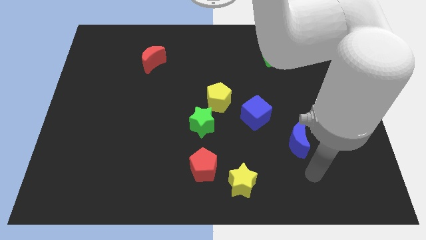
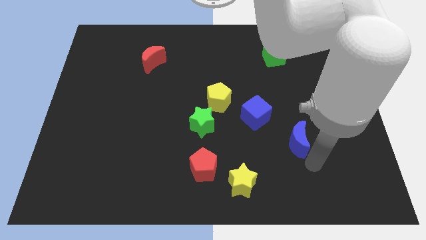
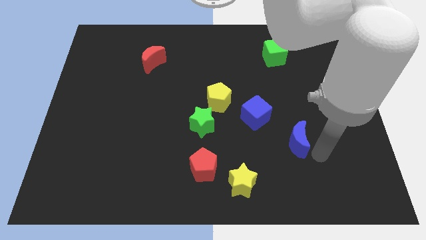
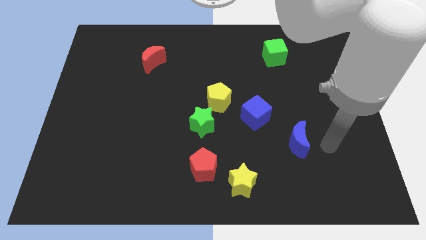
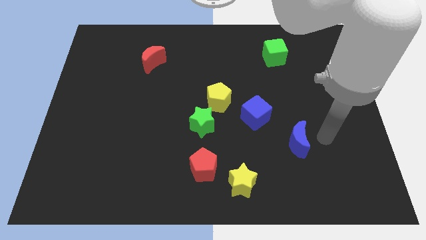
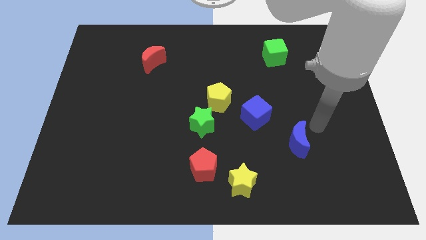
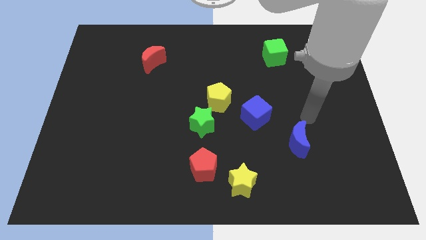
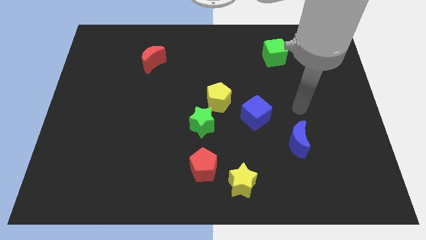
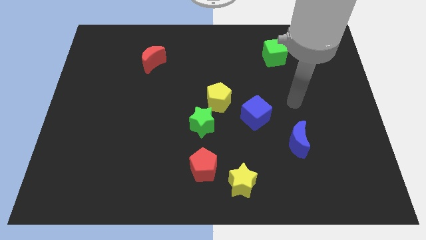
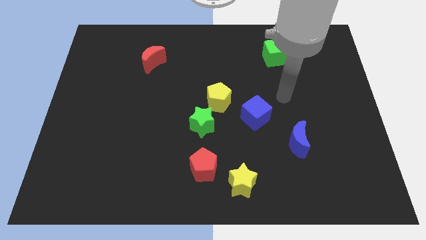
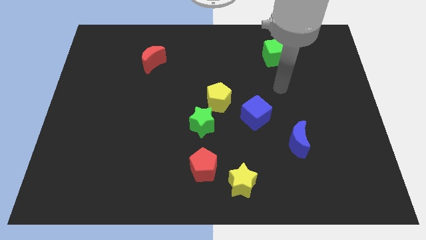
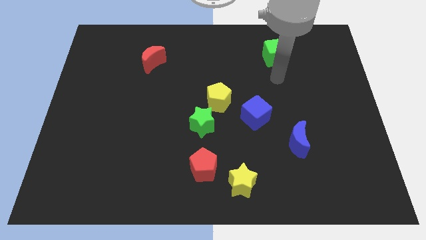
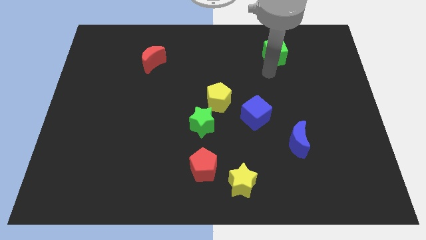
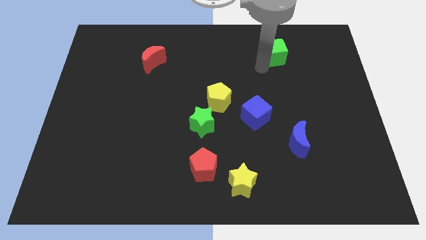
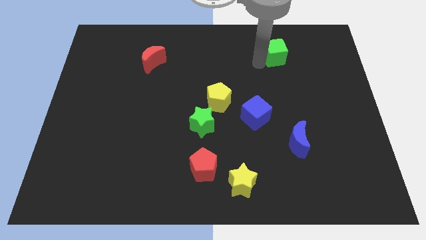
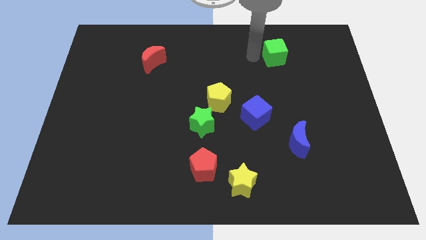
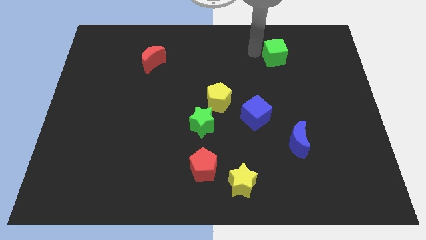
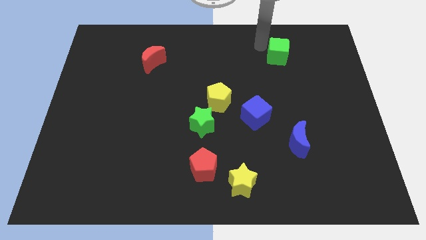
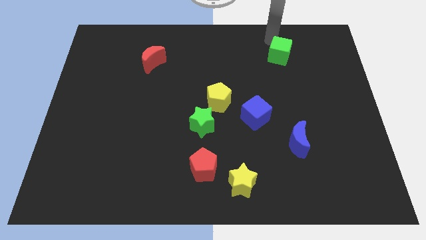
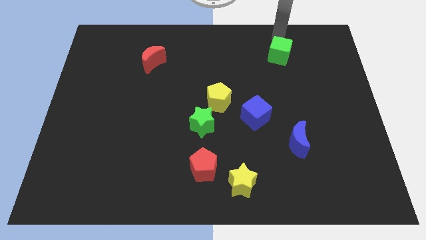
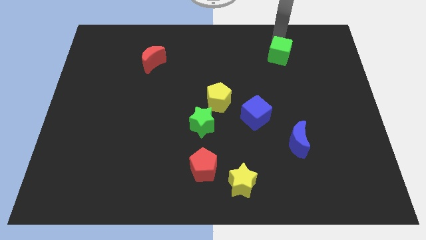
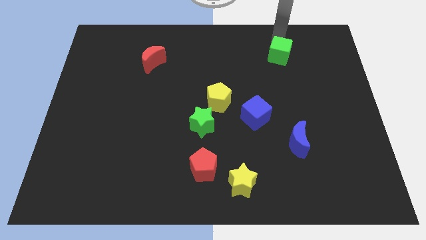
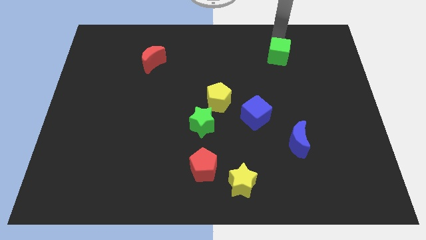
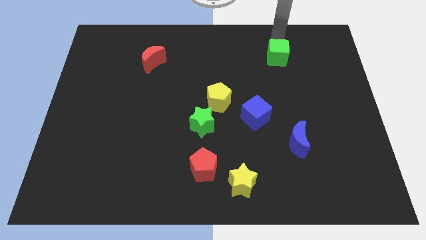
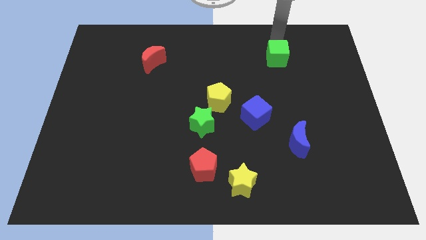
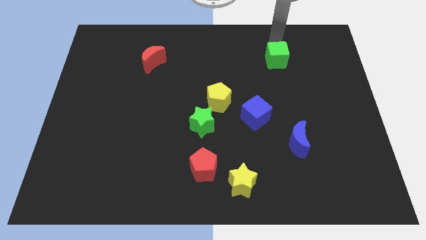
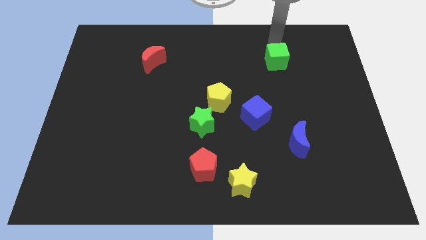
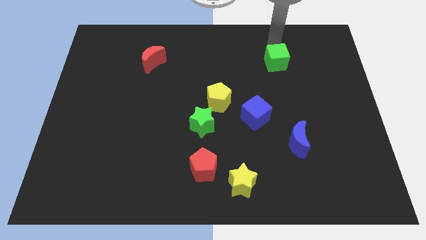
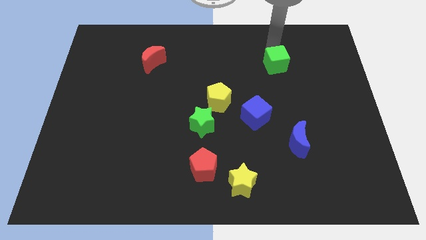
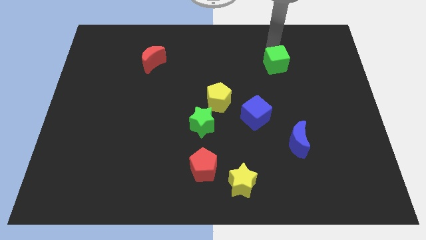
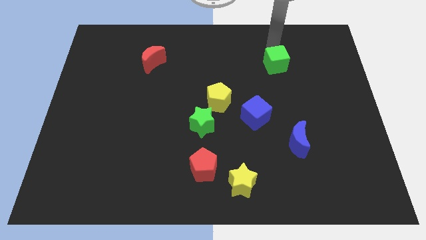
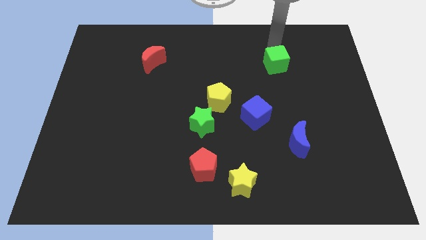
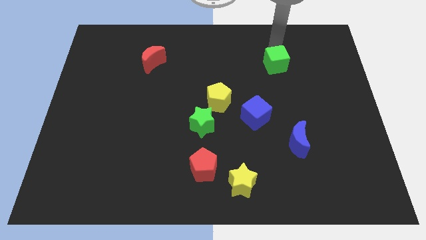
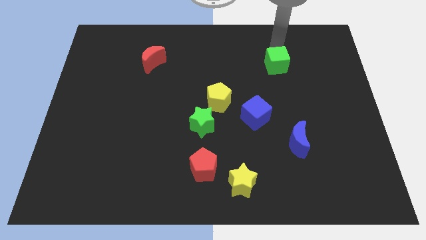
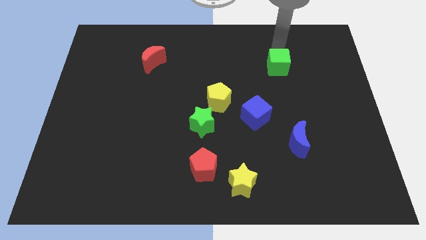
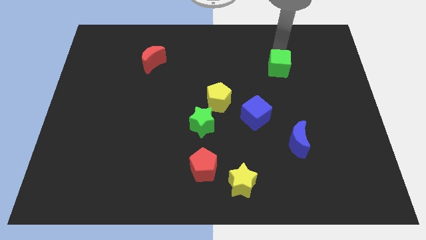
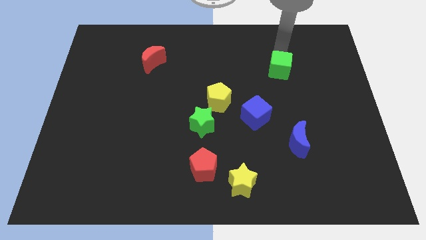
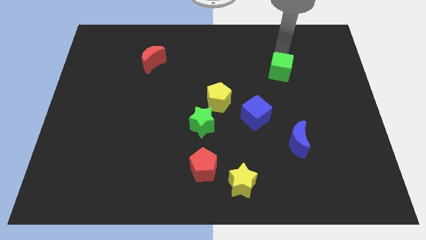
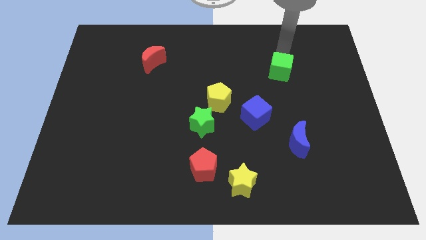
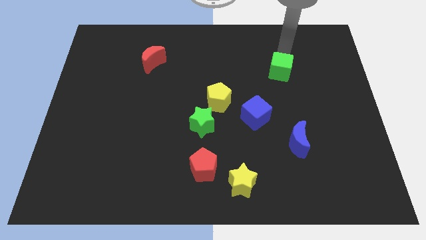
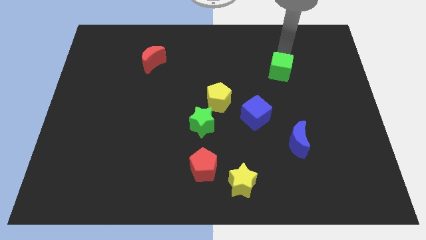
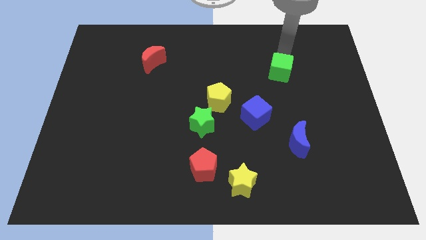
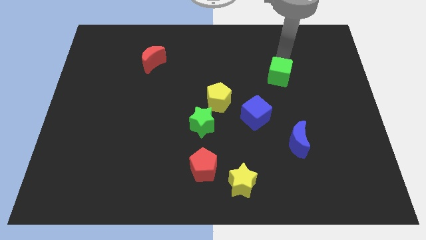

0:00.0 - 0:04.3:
move the green cube a bit down

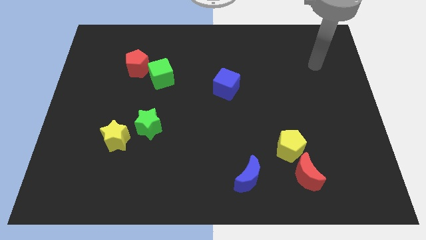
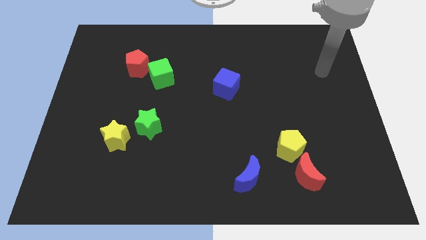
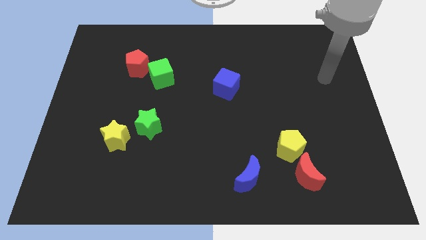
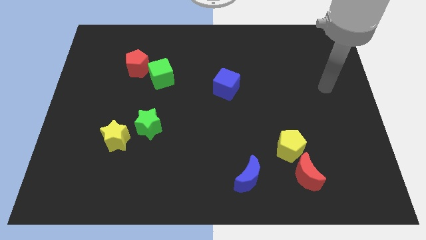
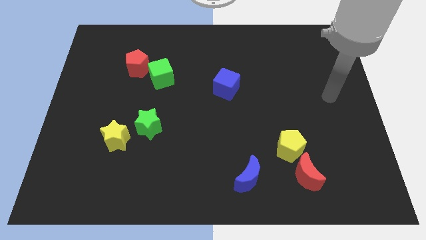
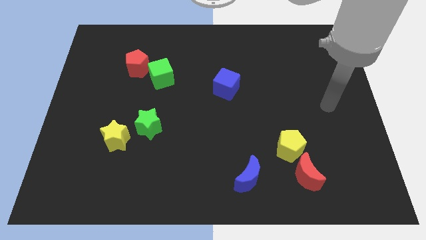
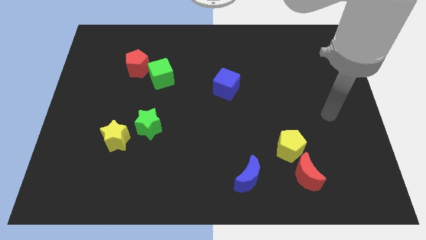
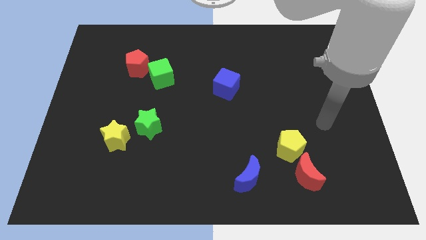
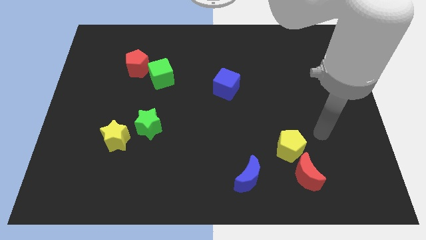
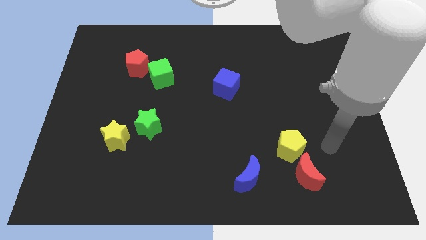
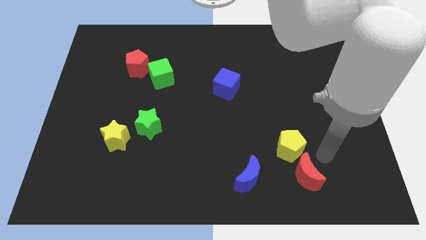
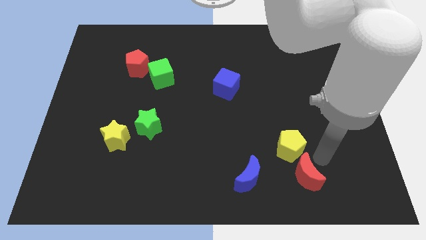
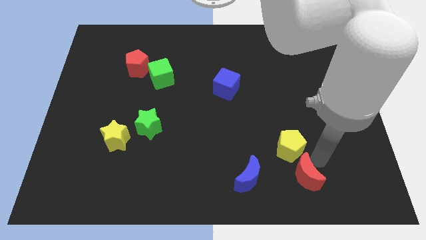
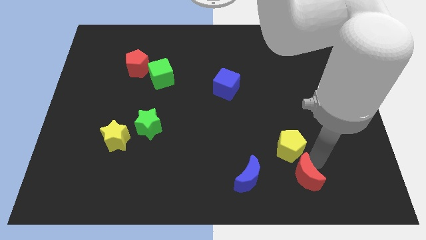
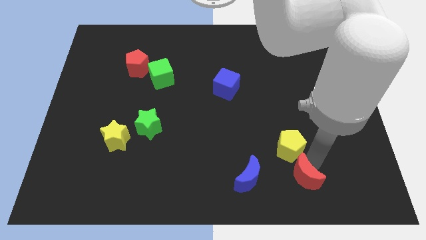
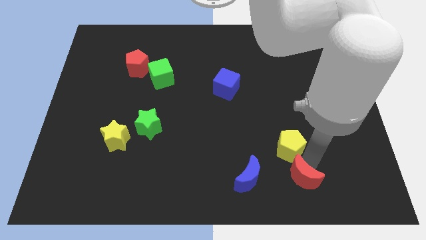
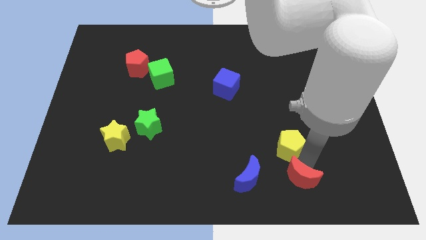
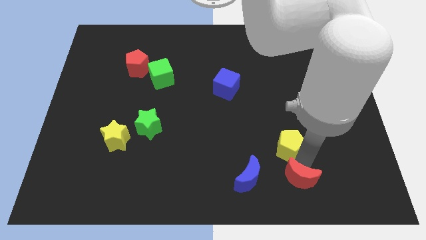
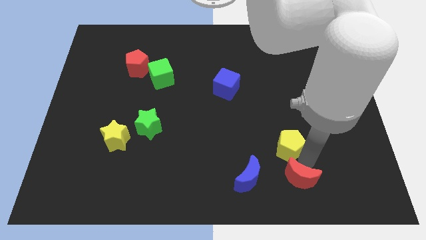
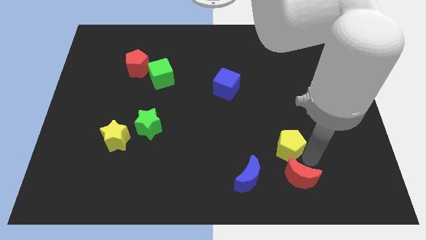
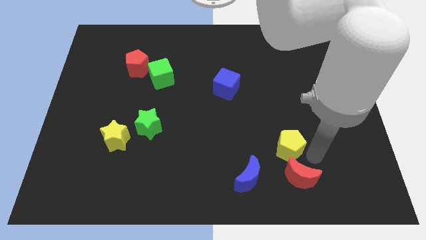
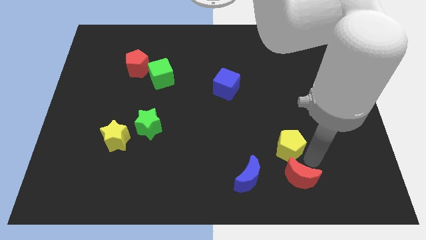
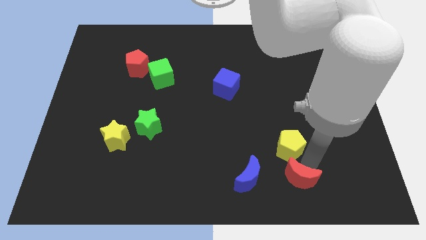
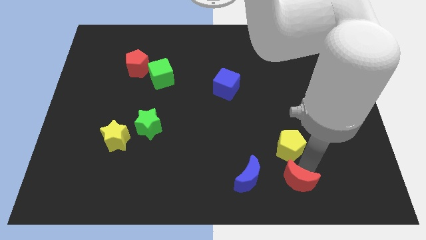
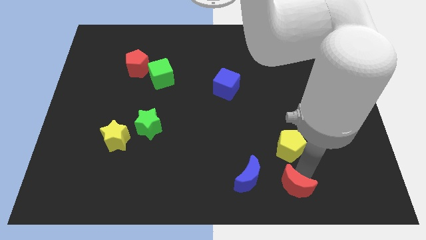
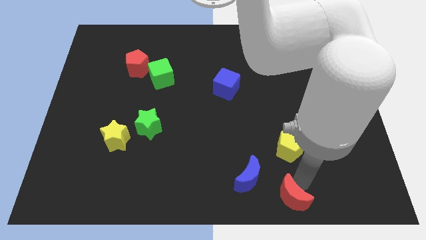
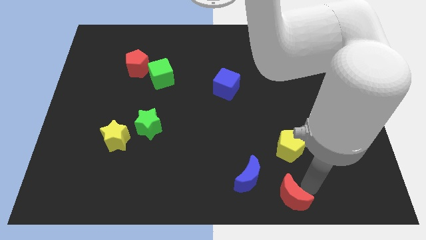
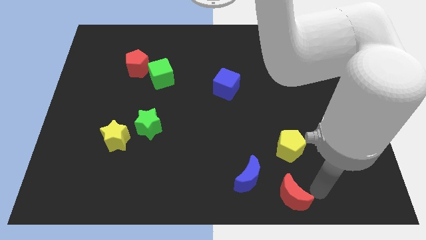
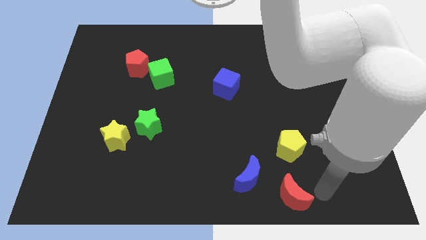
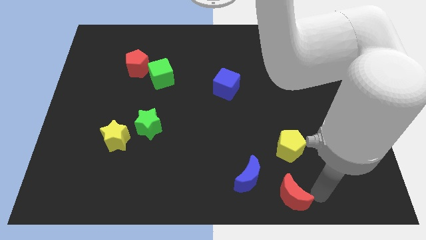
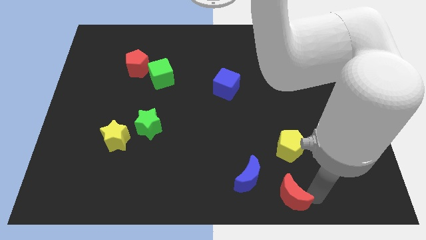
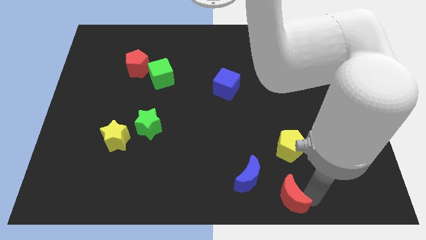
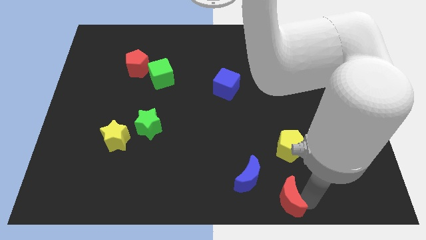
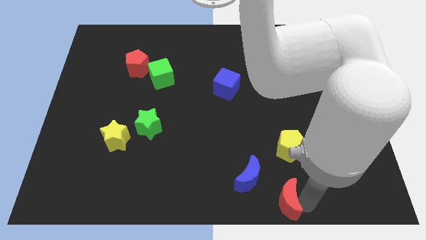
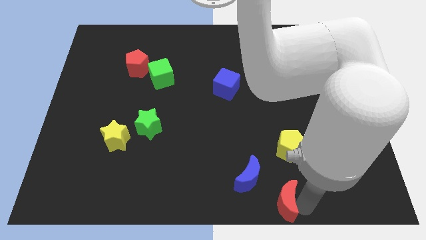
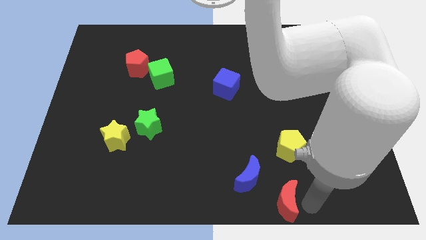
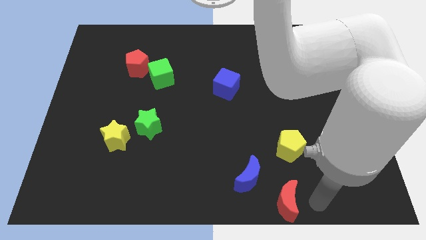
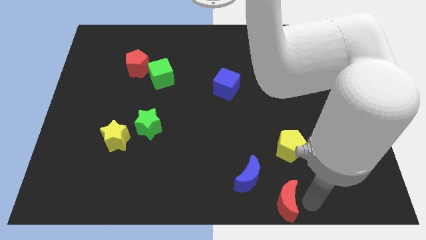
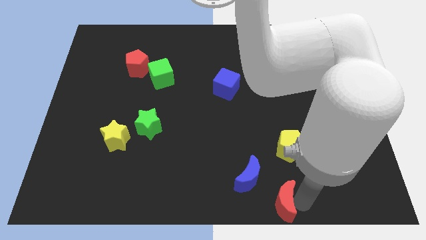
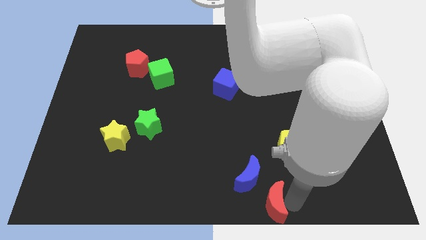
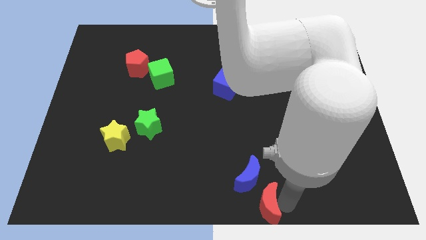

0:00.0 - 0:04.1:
move the red moon a little bit left

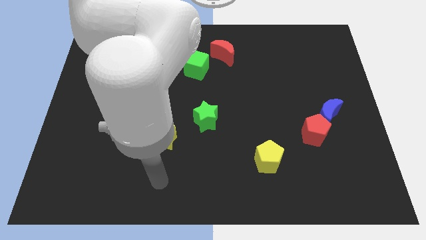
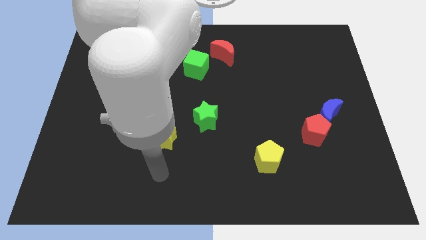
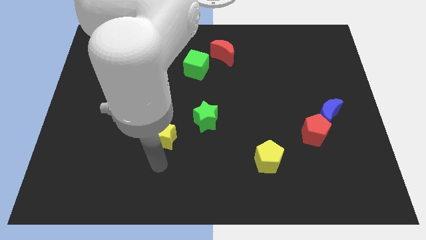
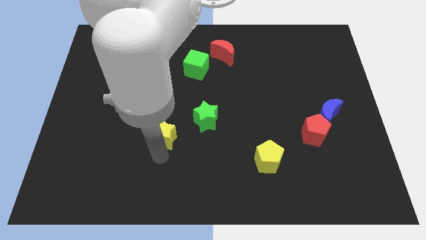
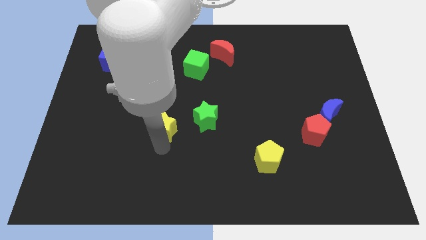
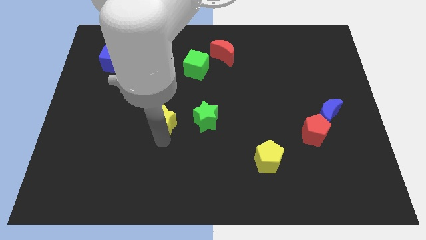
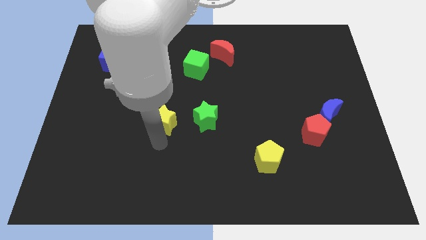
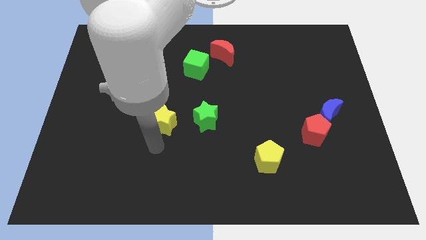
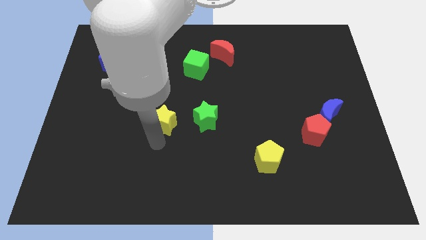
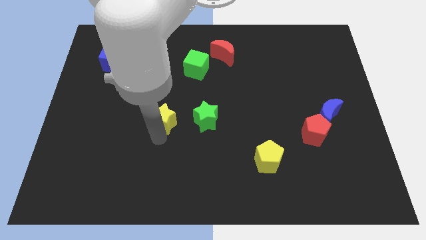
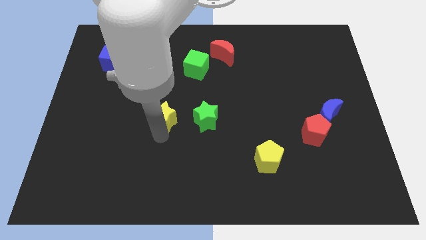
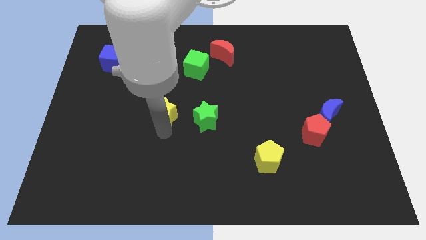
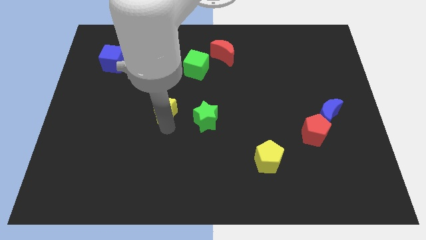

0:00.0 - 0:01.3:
slide the yellow star up a little bit
